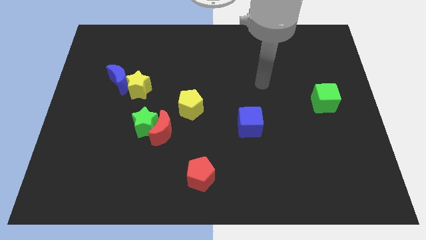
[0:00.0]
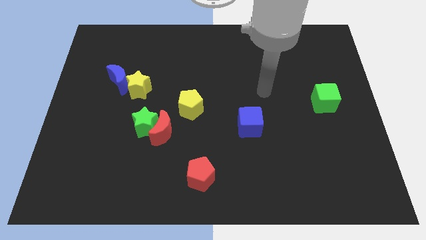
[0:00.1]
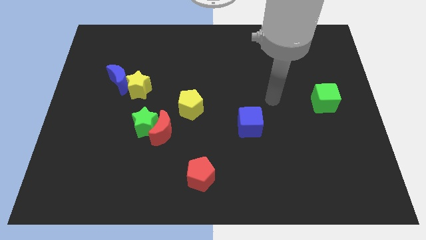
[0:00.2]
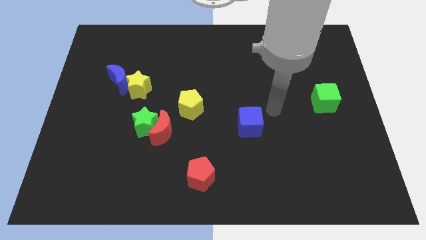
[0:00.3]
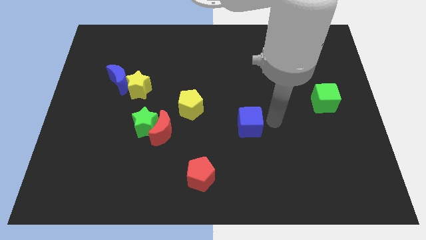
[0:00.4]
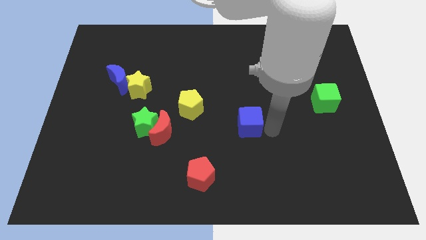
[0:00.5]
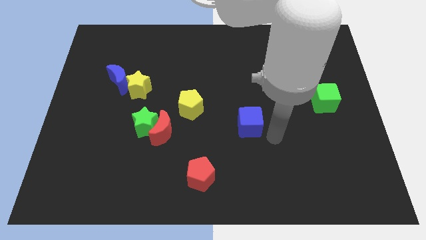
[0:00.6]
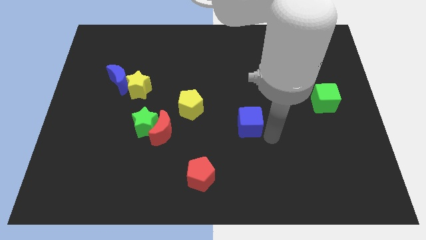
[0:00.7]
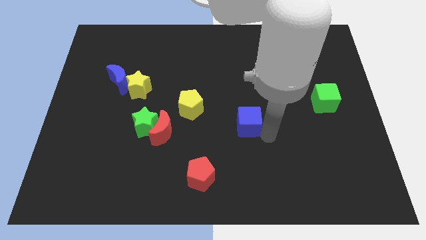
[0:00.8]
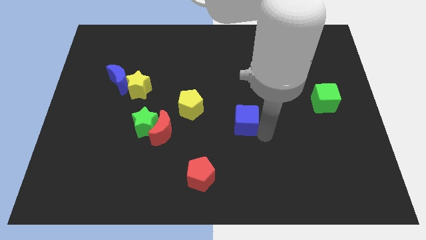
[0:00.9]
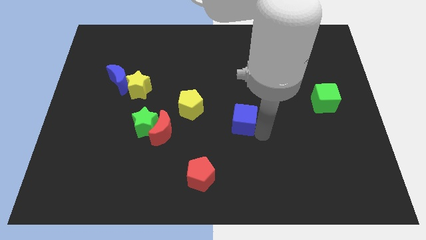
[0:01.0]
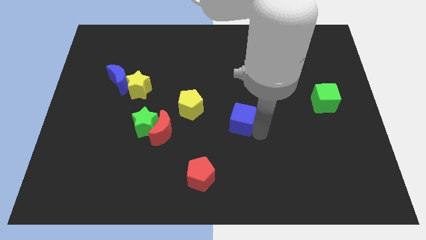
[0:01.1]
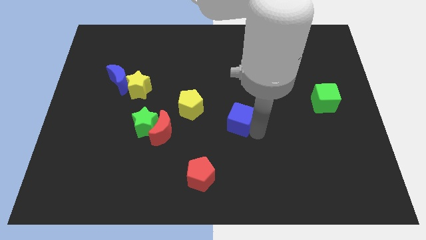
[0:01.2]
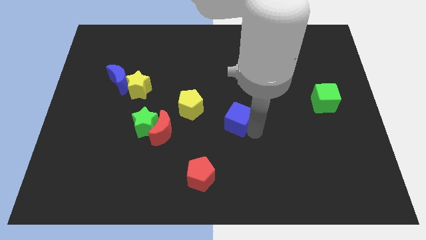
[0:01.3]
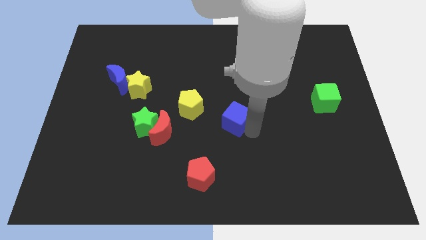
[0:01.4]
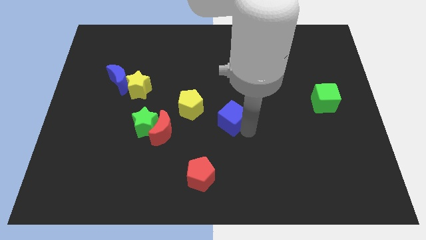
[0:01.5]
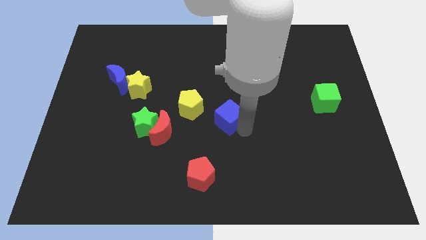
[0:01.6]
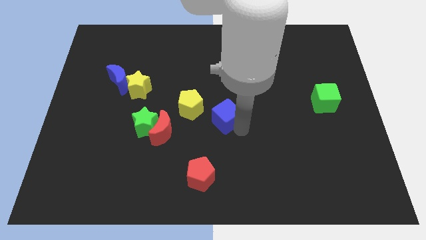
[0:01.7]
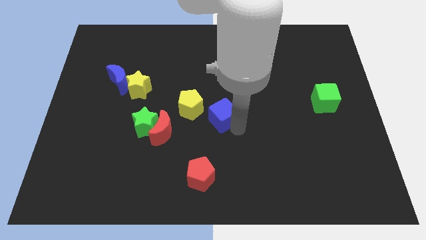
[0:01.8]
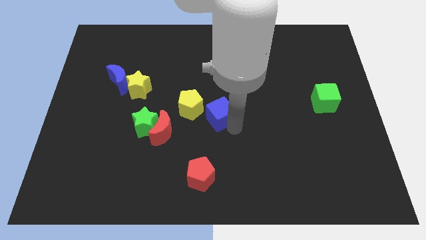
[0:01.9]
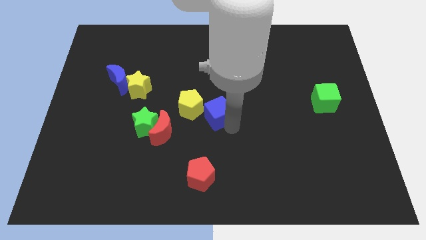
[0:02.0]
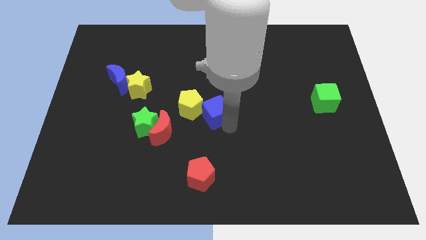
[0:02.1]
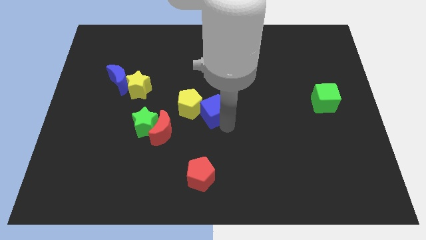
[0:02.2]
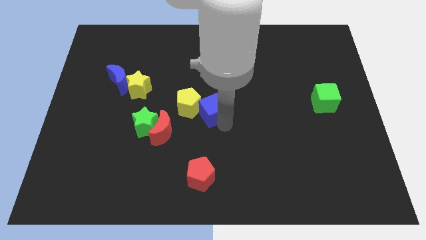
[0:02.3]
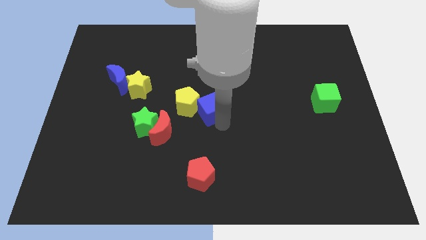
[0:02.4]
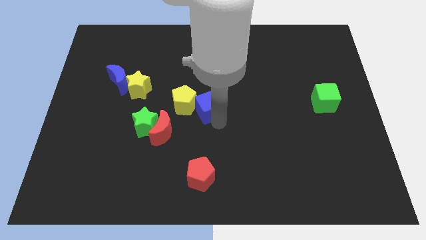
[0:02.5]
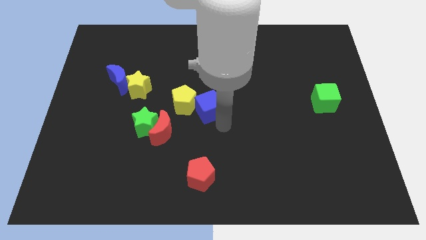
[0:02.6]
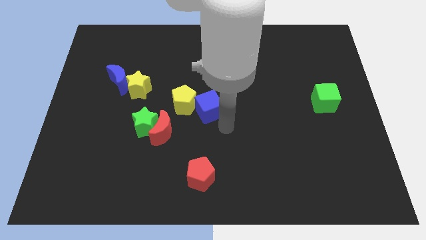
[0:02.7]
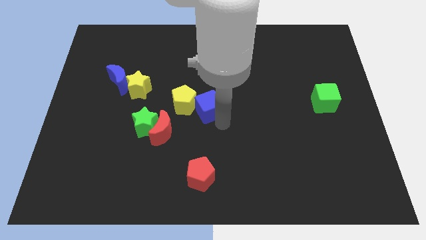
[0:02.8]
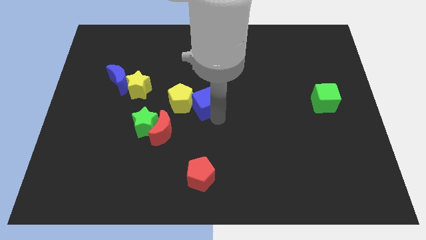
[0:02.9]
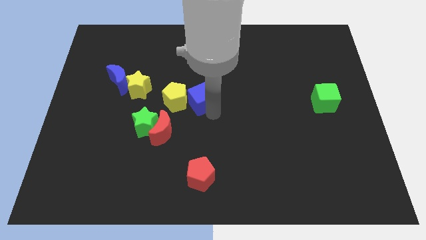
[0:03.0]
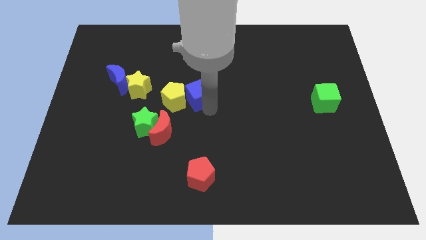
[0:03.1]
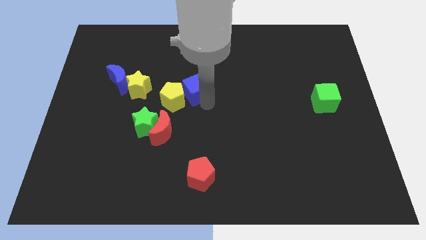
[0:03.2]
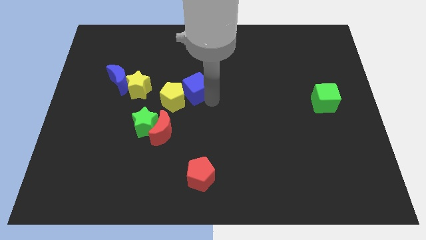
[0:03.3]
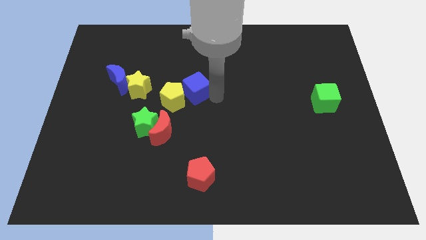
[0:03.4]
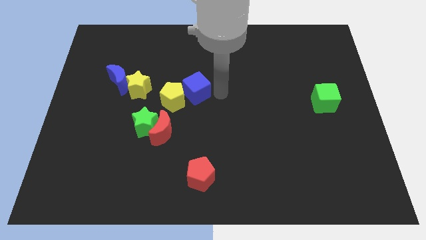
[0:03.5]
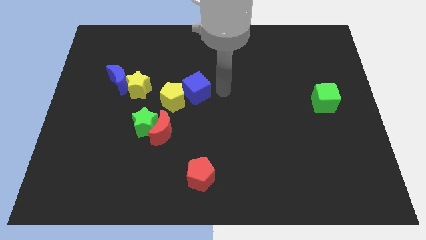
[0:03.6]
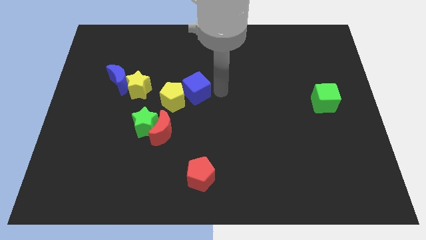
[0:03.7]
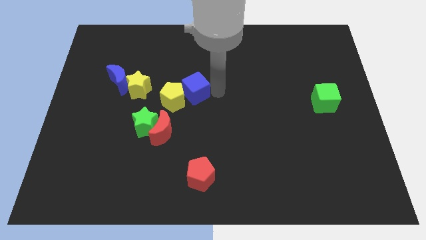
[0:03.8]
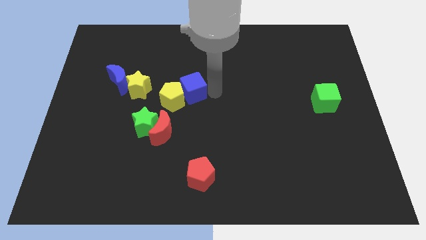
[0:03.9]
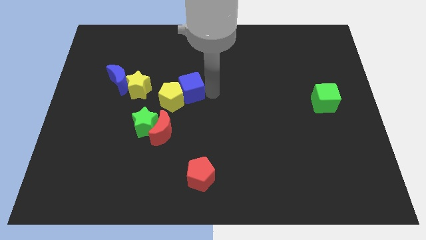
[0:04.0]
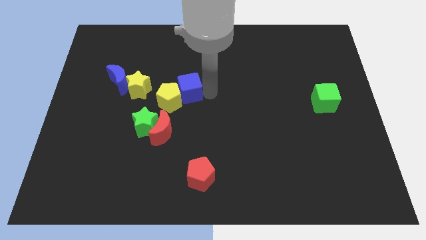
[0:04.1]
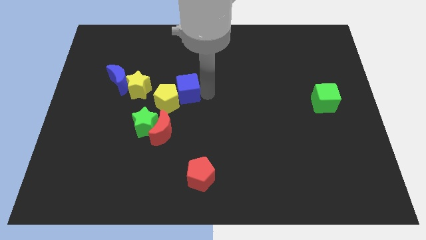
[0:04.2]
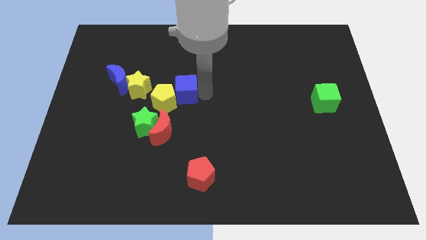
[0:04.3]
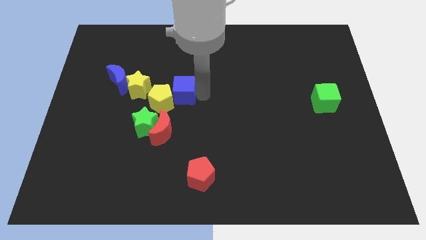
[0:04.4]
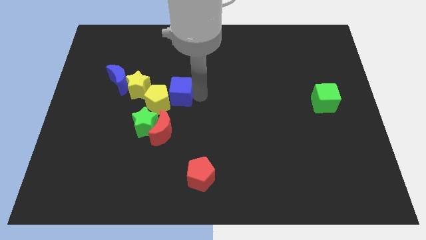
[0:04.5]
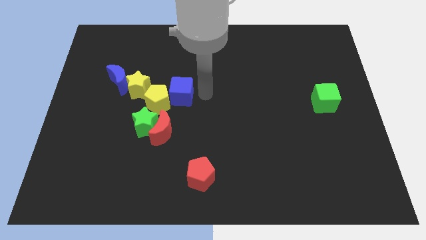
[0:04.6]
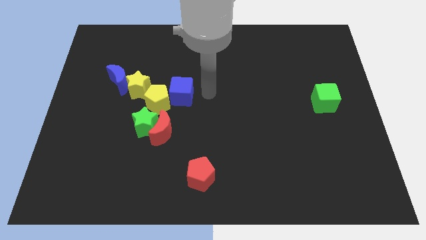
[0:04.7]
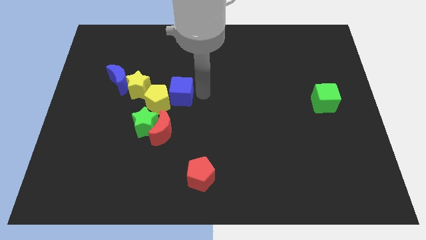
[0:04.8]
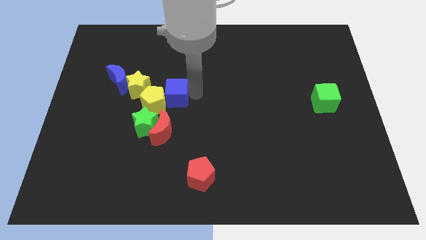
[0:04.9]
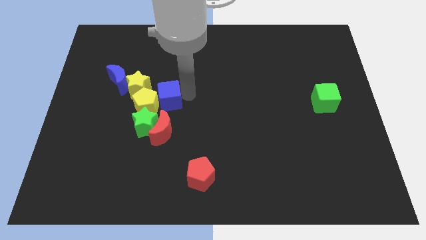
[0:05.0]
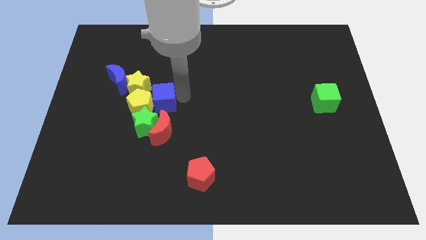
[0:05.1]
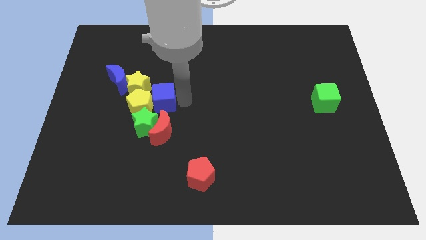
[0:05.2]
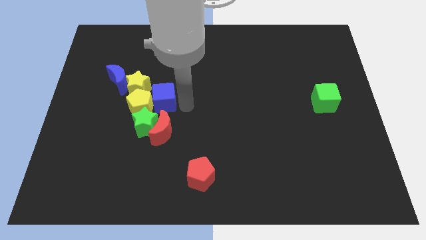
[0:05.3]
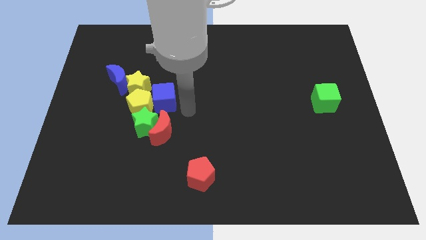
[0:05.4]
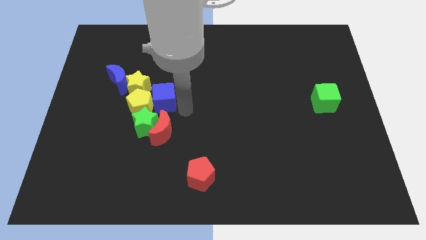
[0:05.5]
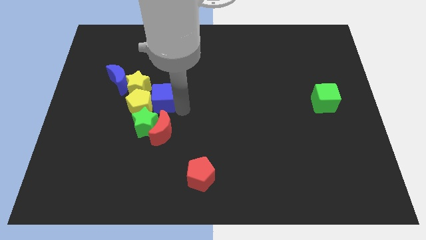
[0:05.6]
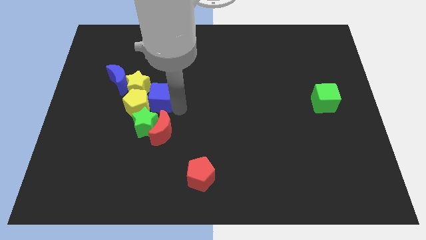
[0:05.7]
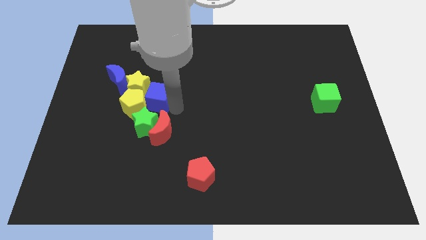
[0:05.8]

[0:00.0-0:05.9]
move the blue cube to the yellow star

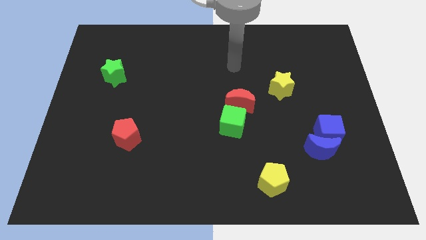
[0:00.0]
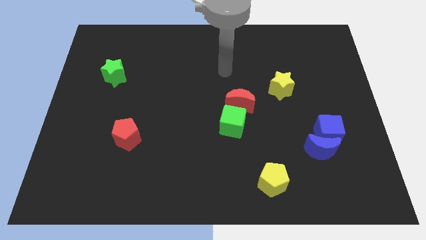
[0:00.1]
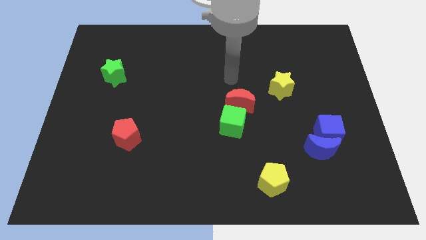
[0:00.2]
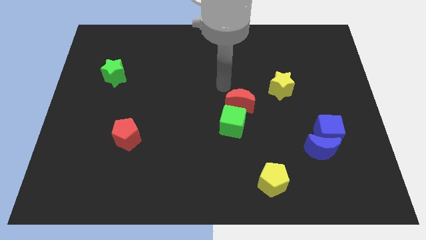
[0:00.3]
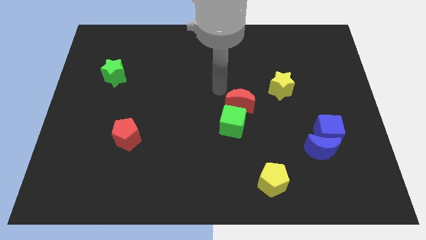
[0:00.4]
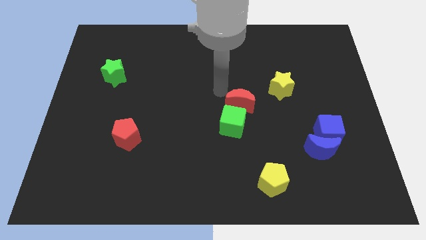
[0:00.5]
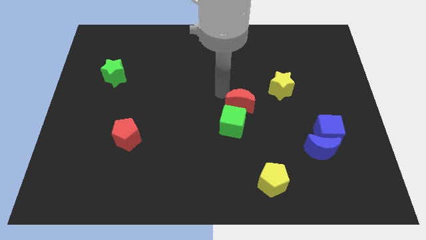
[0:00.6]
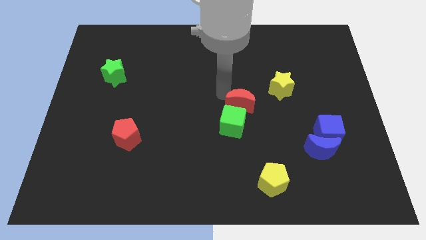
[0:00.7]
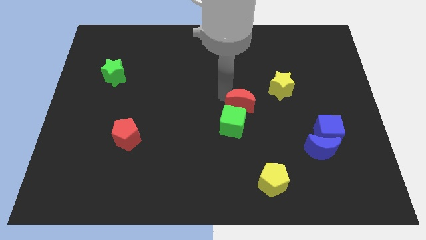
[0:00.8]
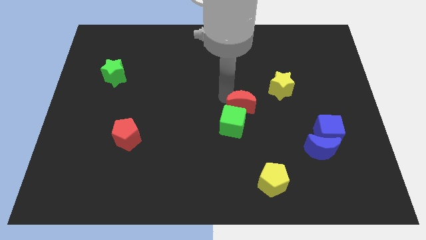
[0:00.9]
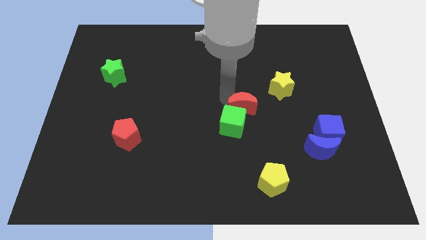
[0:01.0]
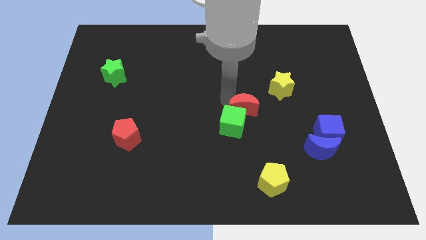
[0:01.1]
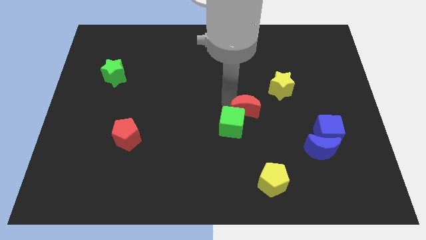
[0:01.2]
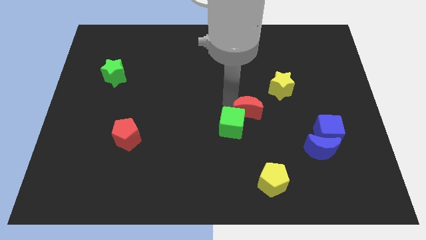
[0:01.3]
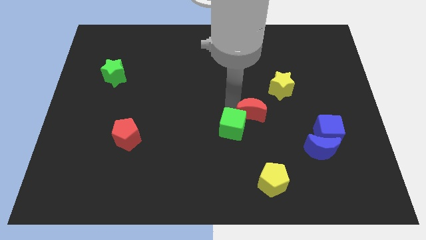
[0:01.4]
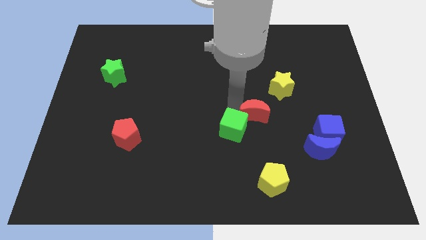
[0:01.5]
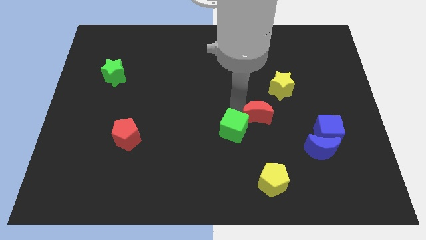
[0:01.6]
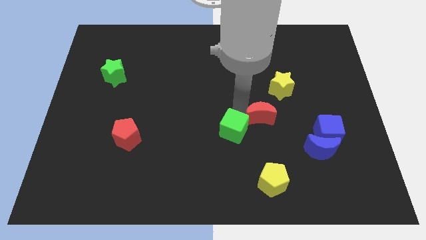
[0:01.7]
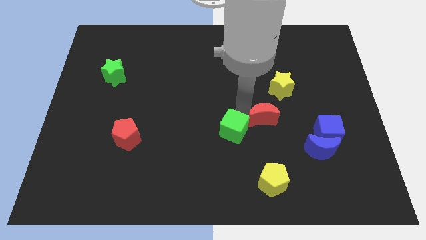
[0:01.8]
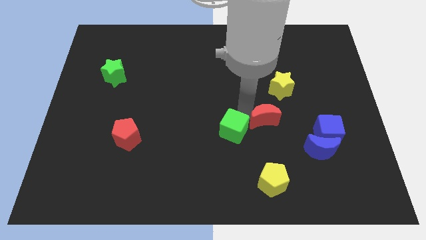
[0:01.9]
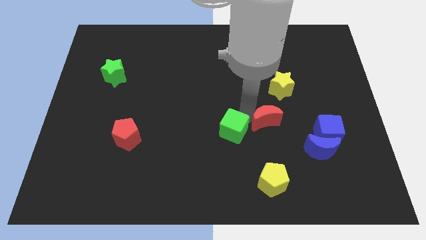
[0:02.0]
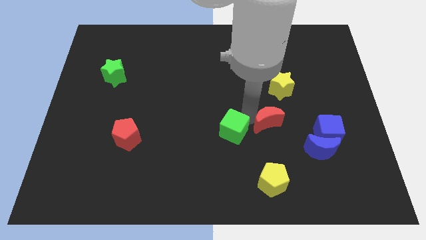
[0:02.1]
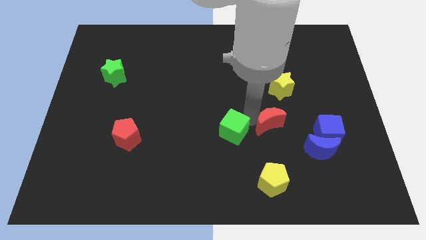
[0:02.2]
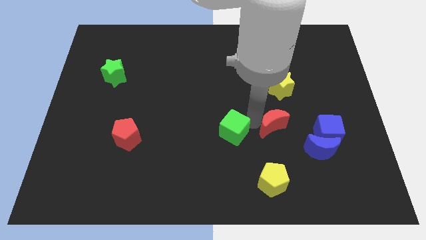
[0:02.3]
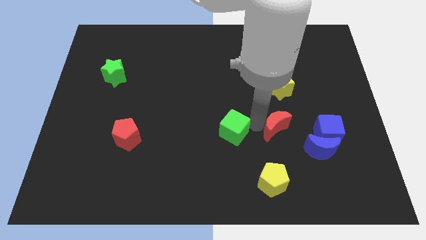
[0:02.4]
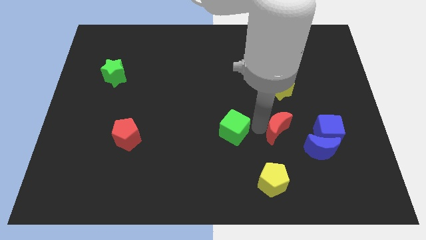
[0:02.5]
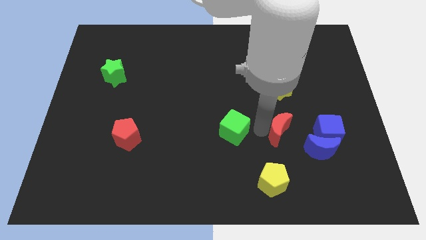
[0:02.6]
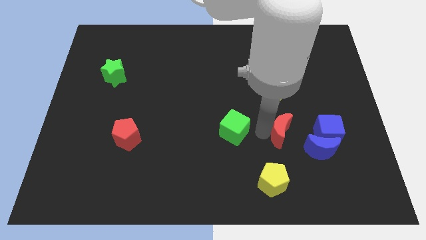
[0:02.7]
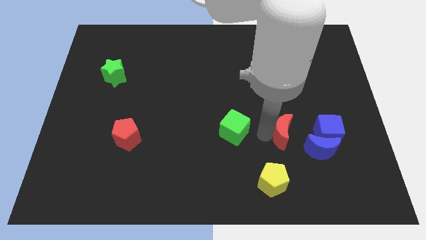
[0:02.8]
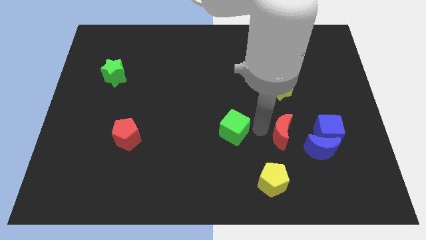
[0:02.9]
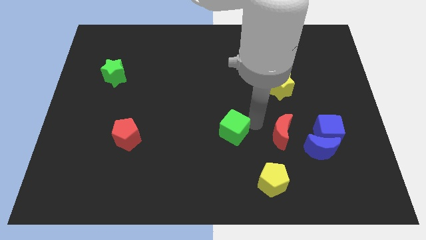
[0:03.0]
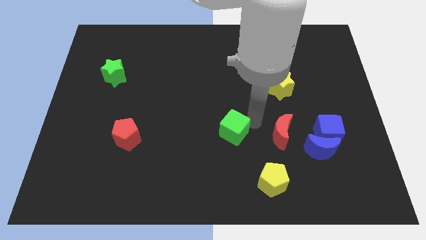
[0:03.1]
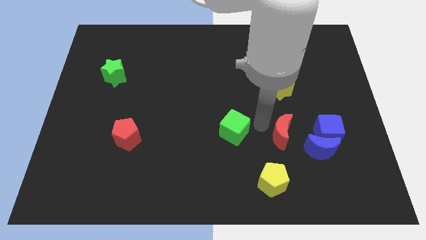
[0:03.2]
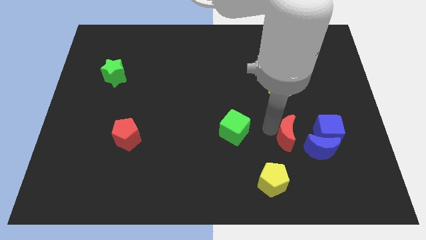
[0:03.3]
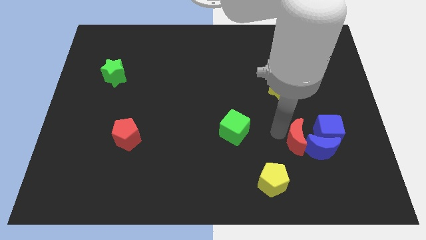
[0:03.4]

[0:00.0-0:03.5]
push the red moon close to the blue moon
